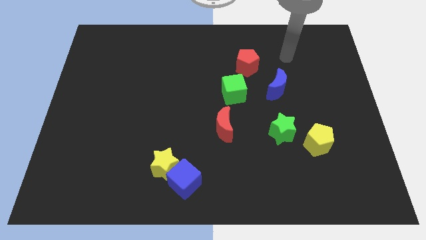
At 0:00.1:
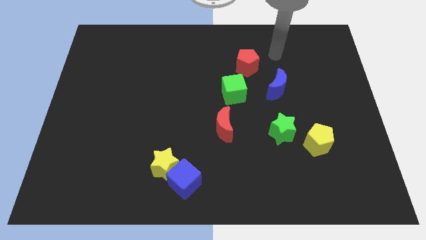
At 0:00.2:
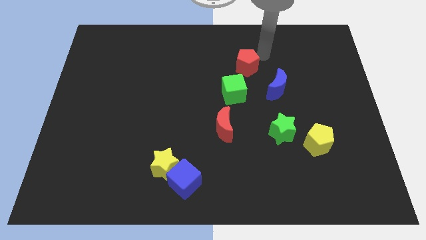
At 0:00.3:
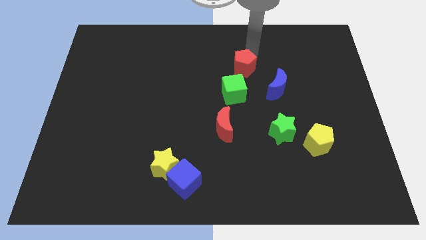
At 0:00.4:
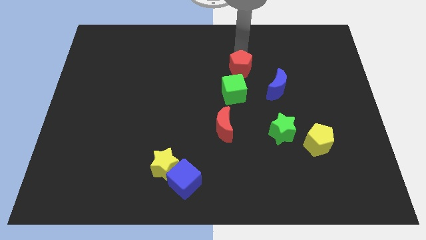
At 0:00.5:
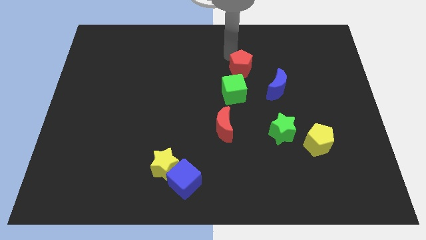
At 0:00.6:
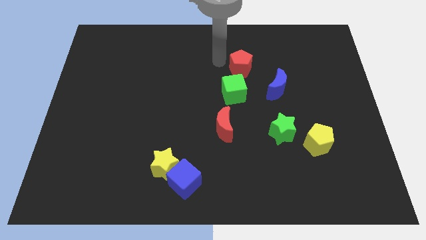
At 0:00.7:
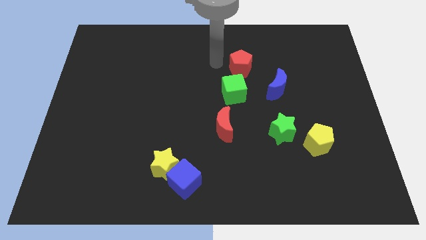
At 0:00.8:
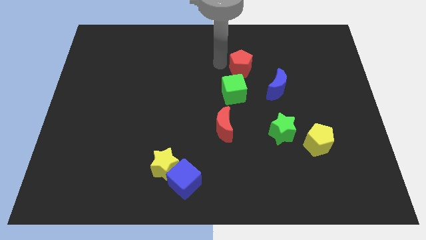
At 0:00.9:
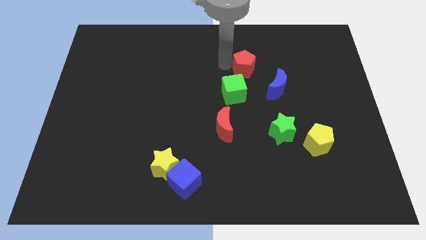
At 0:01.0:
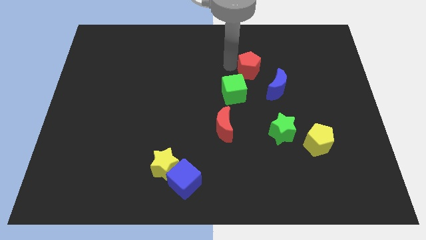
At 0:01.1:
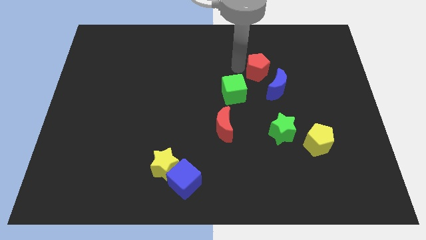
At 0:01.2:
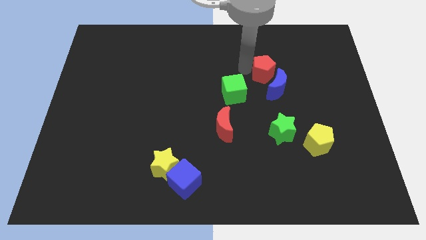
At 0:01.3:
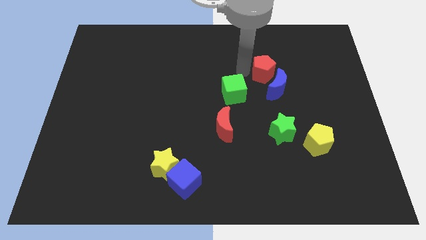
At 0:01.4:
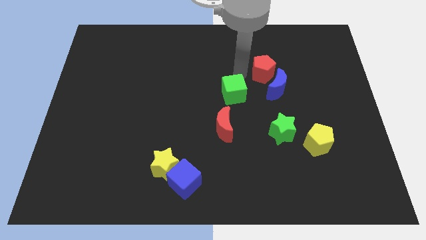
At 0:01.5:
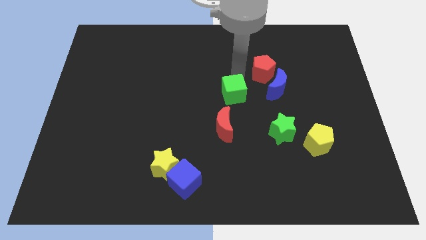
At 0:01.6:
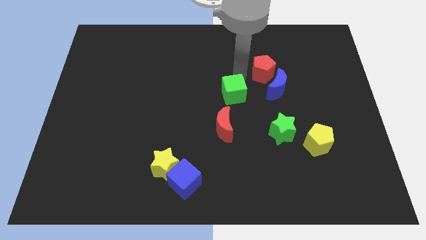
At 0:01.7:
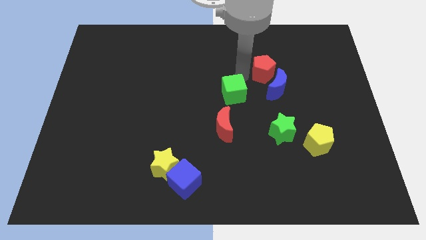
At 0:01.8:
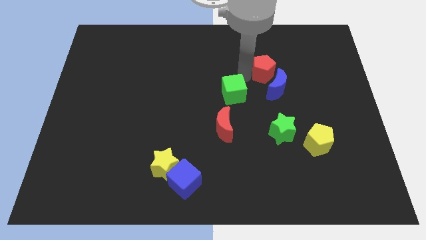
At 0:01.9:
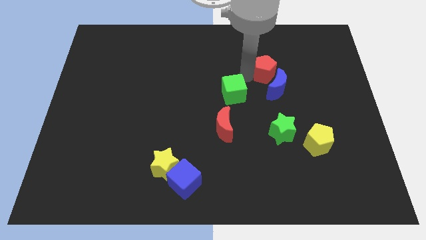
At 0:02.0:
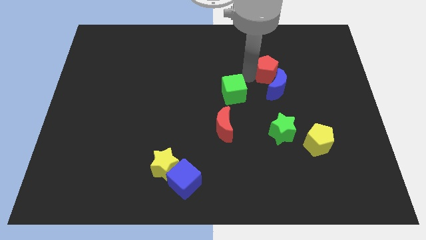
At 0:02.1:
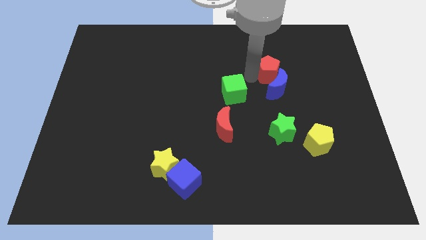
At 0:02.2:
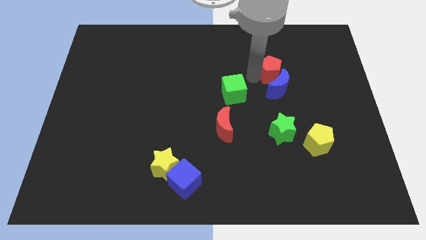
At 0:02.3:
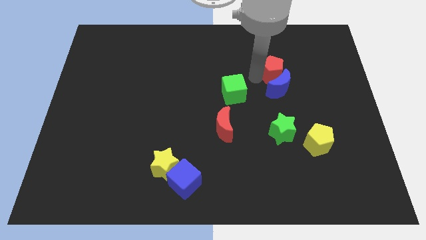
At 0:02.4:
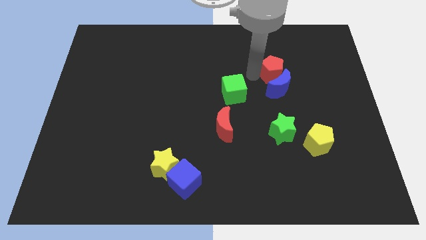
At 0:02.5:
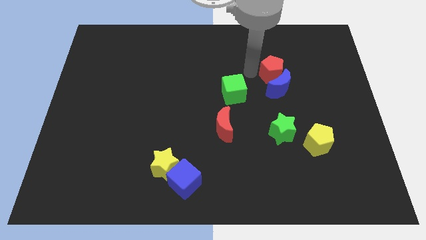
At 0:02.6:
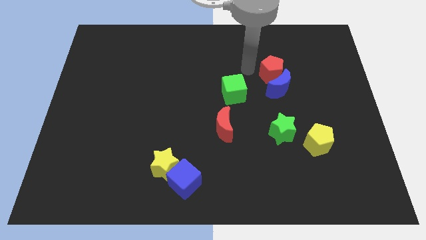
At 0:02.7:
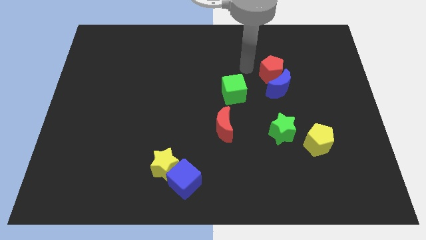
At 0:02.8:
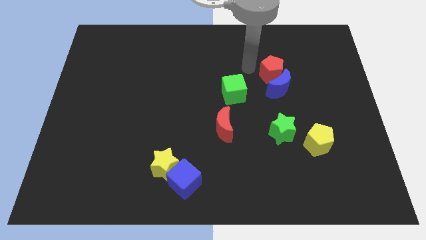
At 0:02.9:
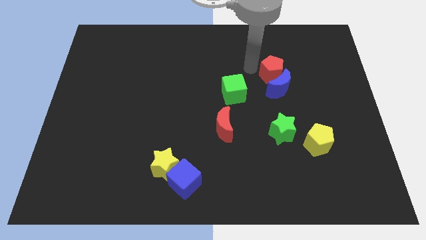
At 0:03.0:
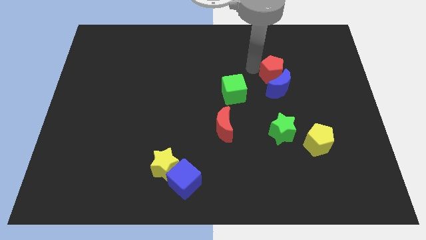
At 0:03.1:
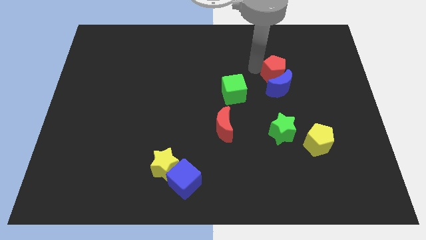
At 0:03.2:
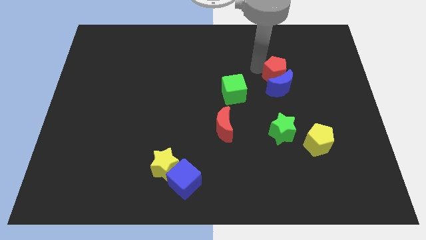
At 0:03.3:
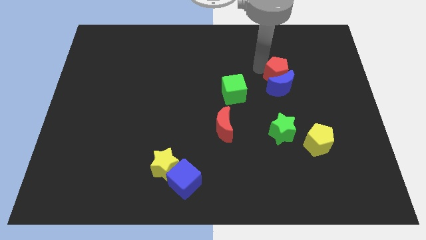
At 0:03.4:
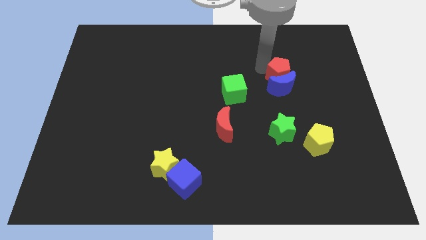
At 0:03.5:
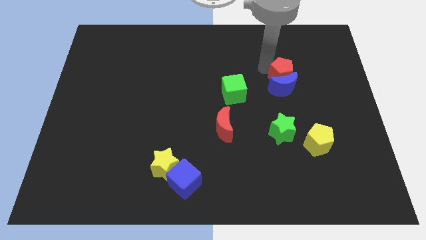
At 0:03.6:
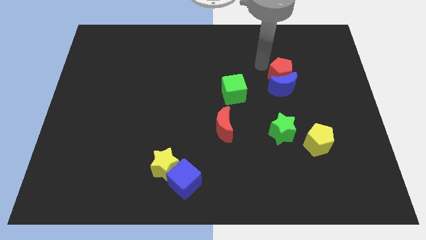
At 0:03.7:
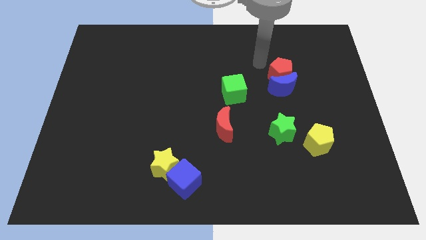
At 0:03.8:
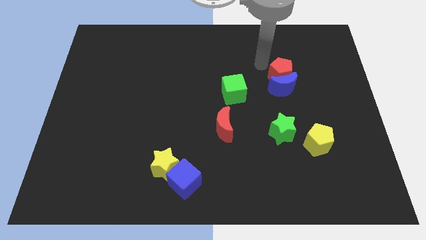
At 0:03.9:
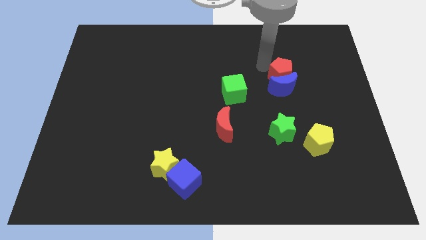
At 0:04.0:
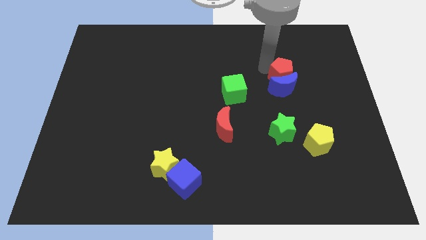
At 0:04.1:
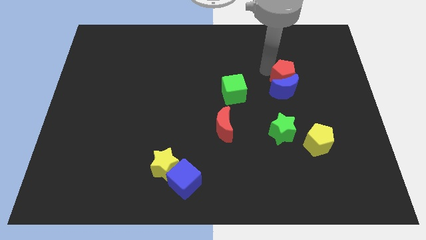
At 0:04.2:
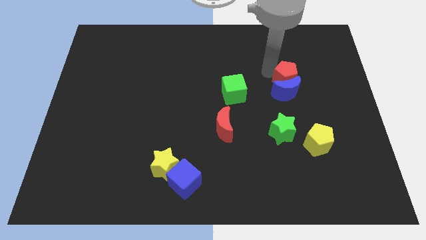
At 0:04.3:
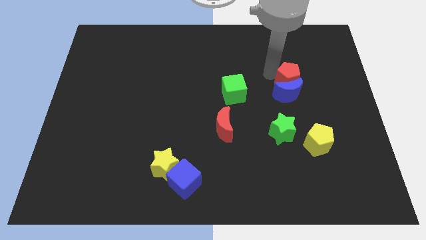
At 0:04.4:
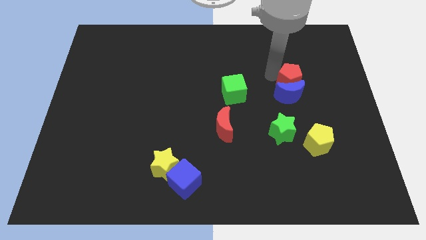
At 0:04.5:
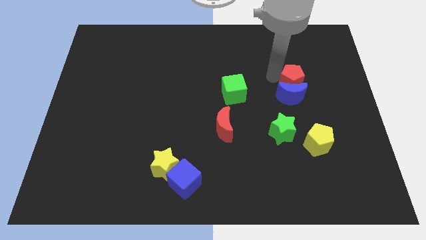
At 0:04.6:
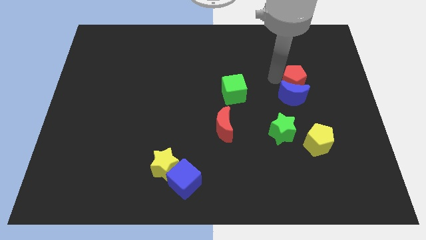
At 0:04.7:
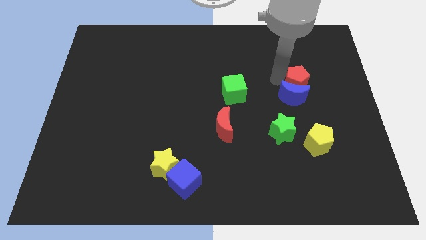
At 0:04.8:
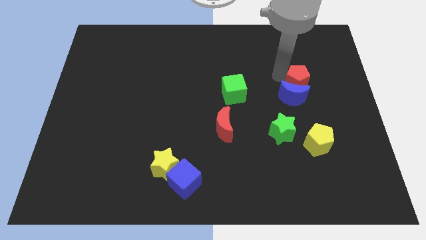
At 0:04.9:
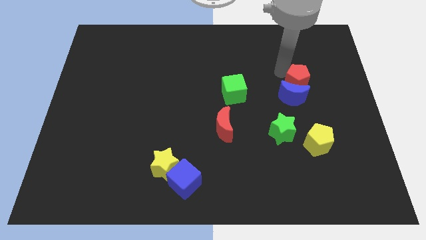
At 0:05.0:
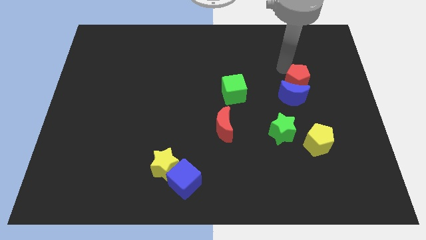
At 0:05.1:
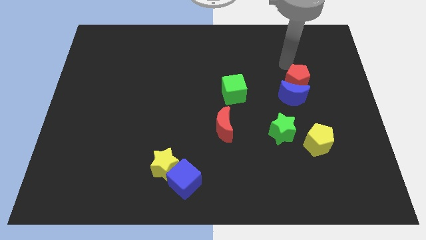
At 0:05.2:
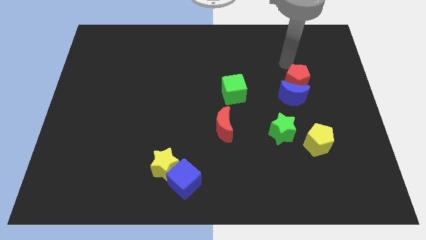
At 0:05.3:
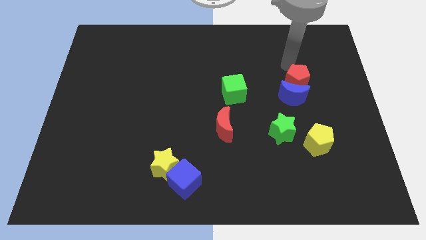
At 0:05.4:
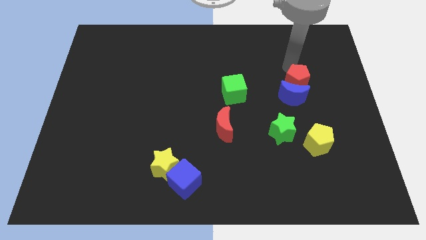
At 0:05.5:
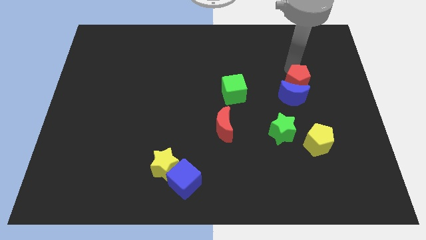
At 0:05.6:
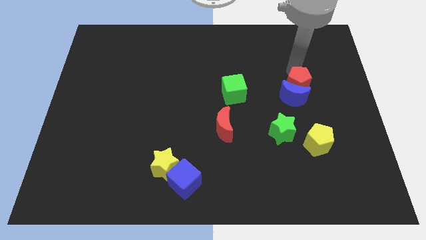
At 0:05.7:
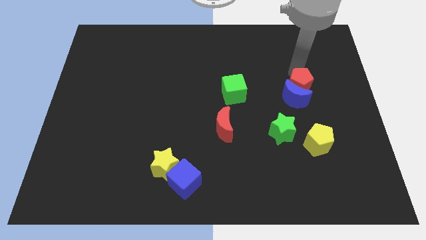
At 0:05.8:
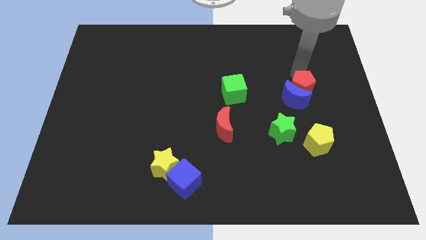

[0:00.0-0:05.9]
move the red pentagon above the yellow pentagon

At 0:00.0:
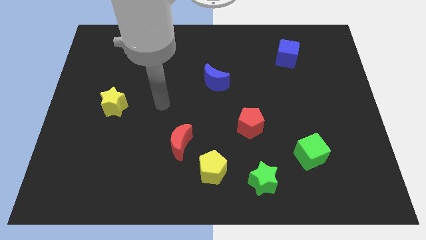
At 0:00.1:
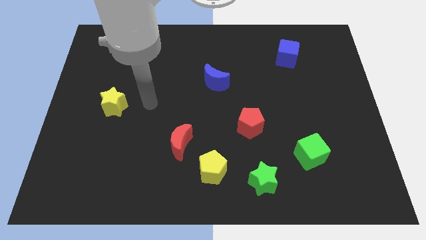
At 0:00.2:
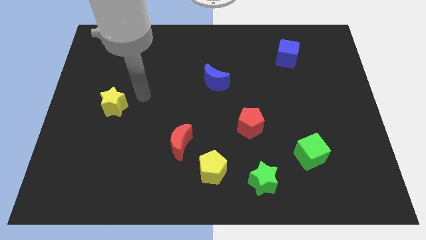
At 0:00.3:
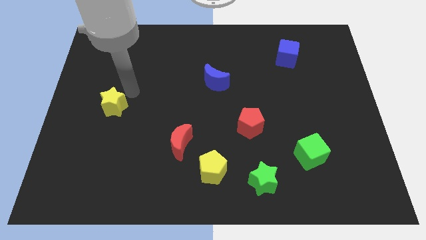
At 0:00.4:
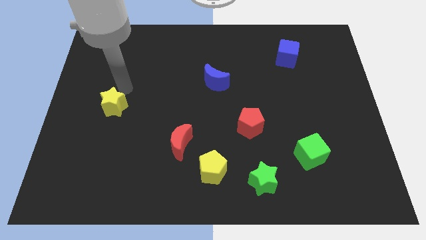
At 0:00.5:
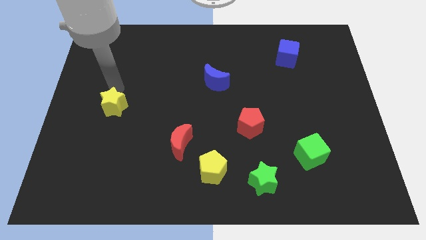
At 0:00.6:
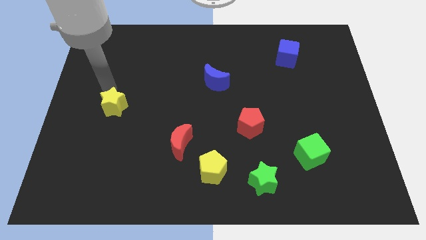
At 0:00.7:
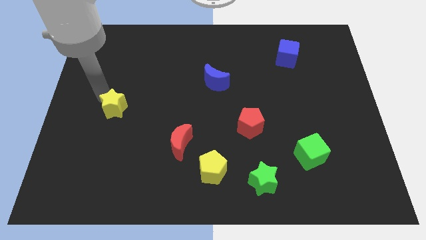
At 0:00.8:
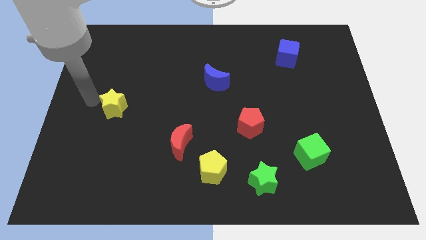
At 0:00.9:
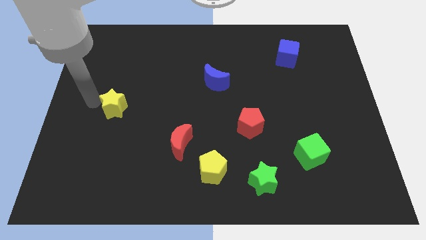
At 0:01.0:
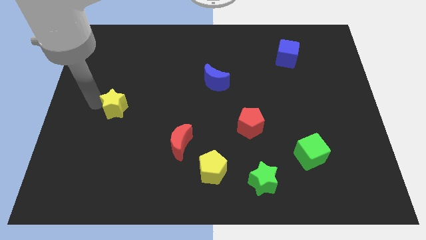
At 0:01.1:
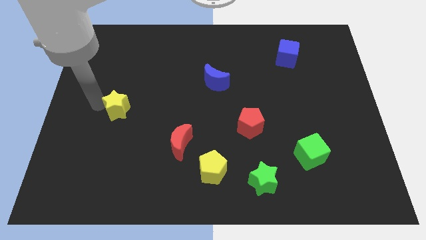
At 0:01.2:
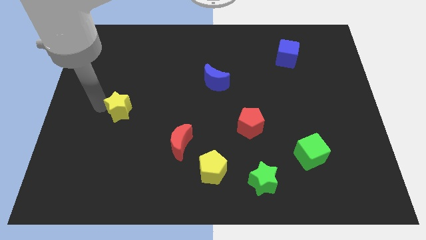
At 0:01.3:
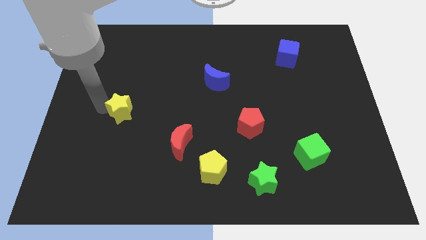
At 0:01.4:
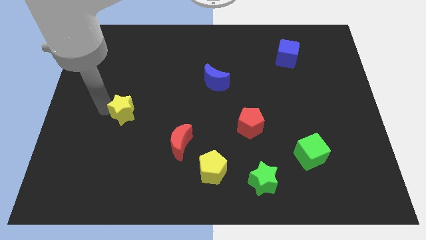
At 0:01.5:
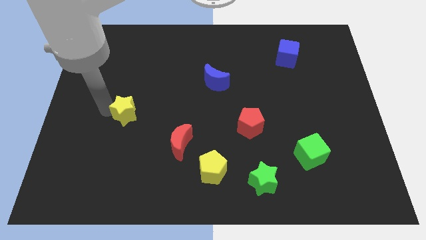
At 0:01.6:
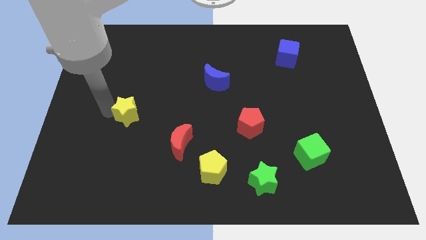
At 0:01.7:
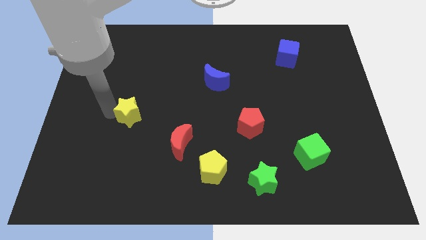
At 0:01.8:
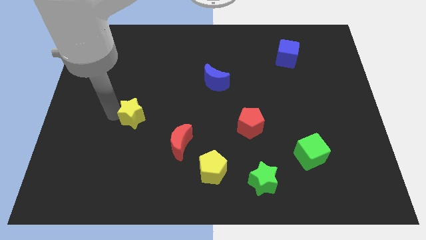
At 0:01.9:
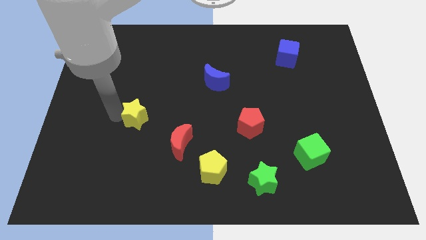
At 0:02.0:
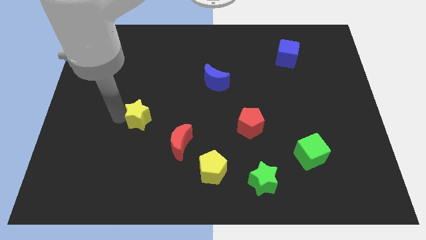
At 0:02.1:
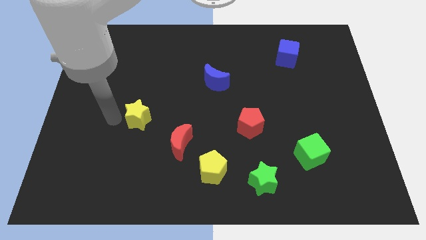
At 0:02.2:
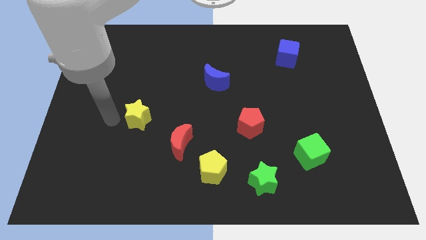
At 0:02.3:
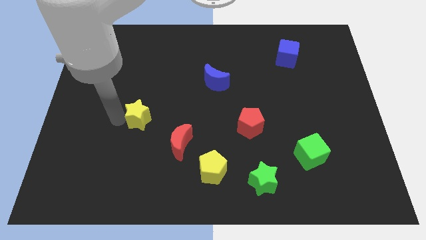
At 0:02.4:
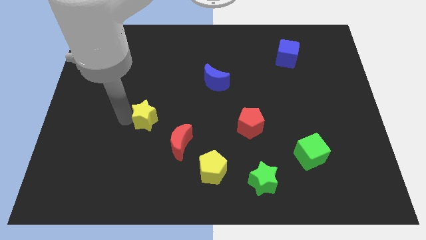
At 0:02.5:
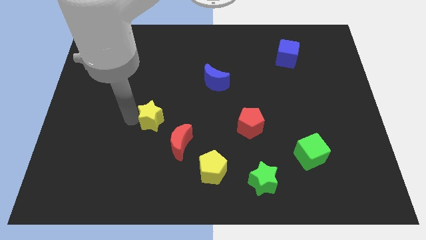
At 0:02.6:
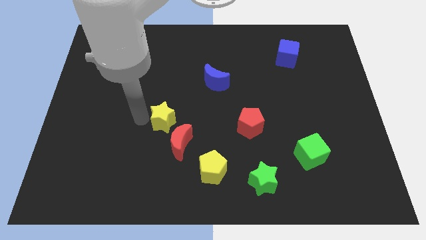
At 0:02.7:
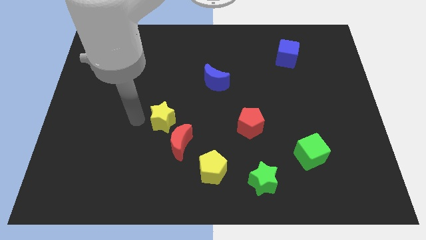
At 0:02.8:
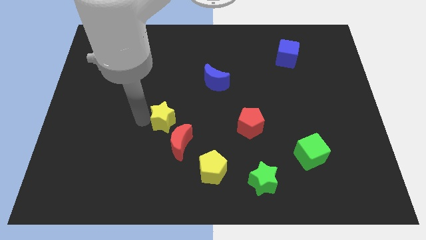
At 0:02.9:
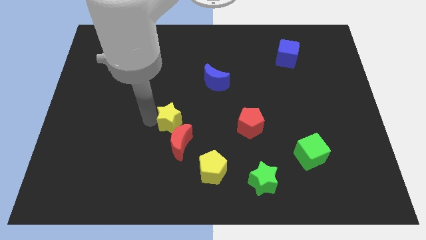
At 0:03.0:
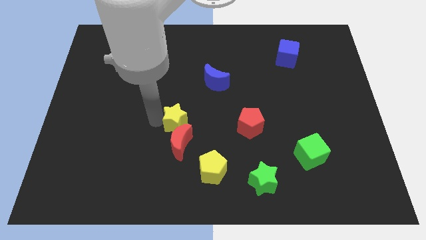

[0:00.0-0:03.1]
put the yellow star diagonally up and to the right of the red moon
